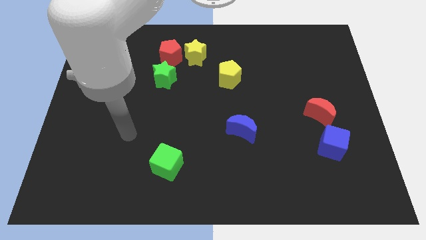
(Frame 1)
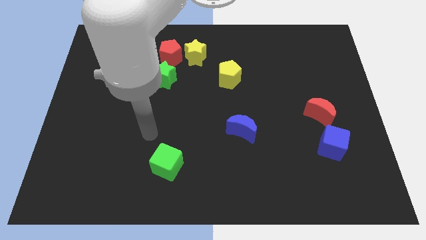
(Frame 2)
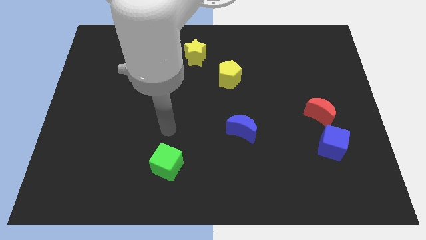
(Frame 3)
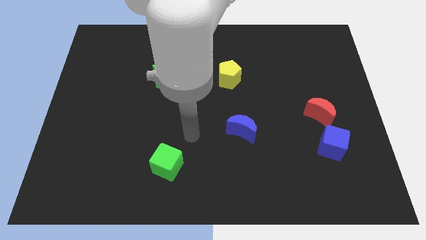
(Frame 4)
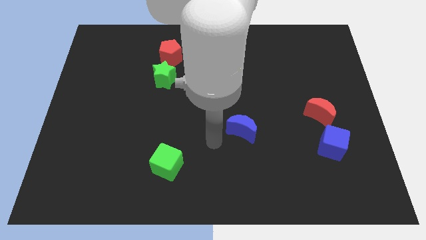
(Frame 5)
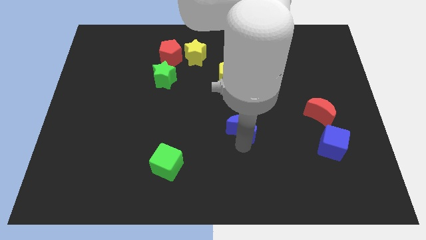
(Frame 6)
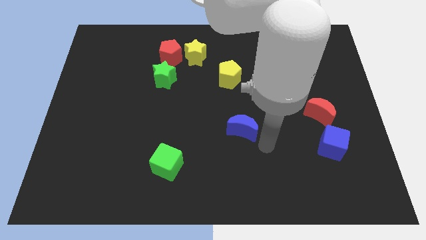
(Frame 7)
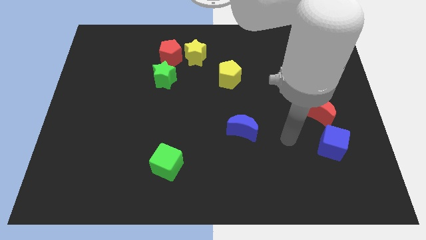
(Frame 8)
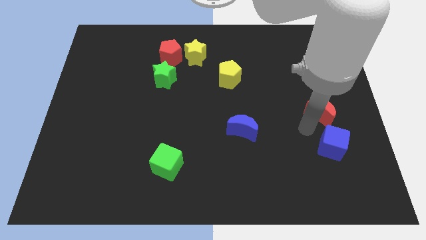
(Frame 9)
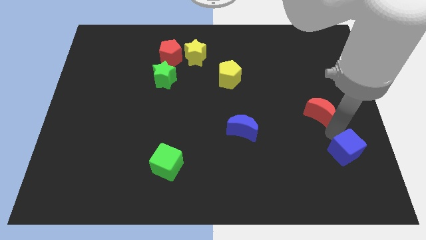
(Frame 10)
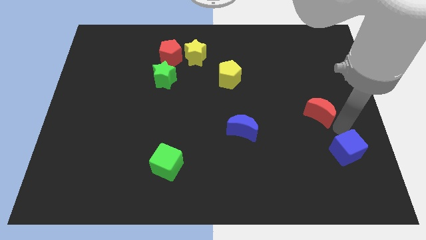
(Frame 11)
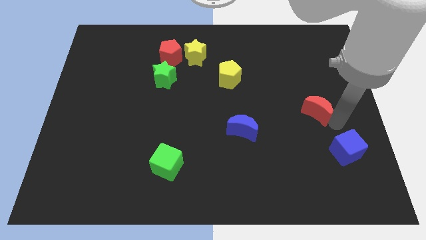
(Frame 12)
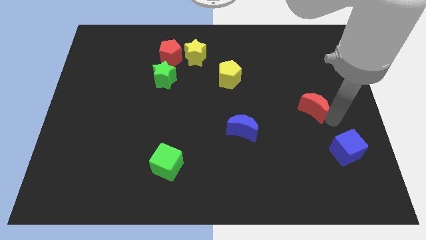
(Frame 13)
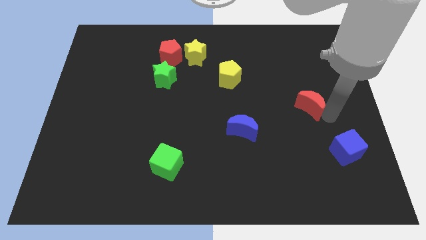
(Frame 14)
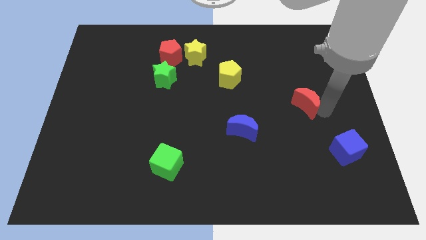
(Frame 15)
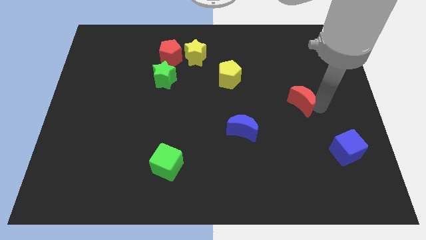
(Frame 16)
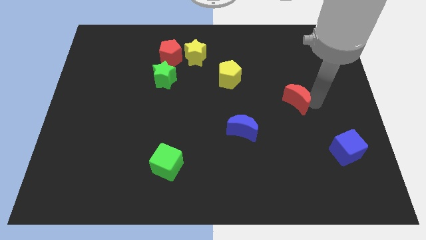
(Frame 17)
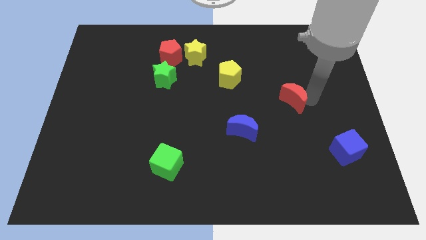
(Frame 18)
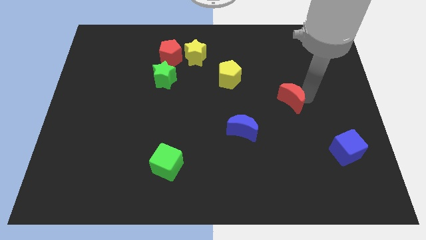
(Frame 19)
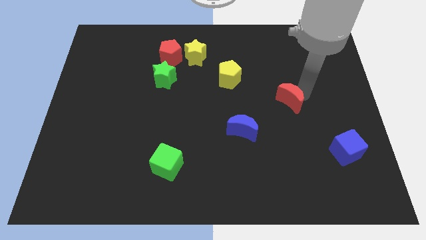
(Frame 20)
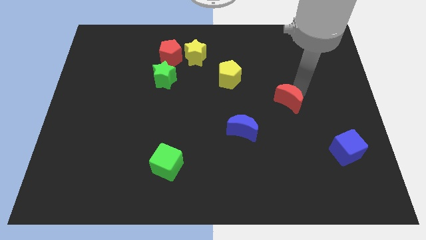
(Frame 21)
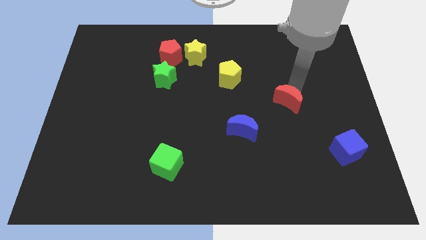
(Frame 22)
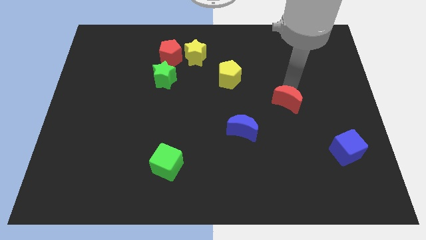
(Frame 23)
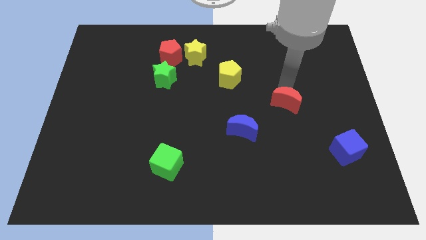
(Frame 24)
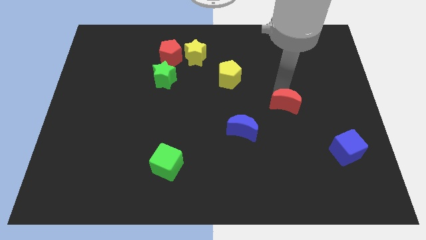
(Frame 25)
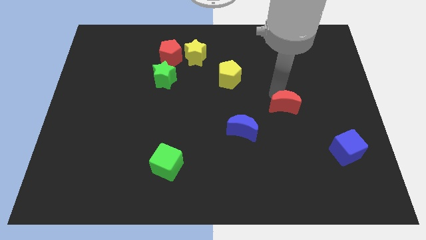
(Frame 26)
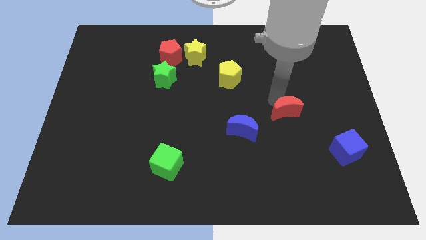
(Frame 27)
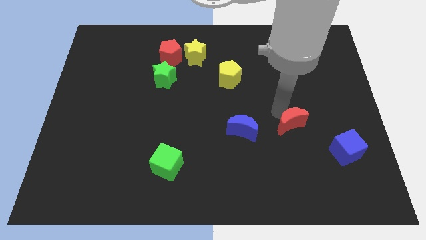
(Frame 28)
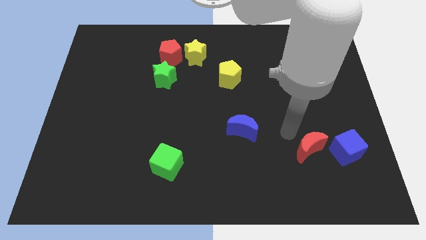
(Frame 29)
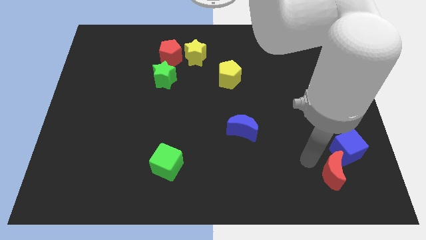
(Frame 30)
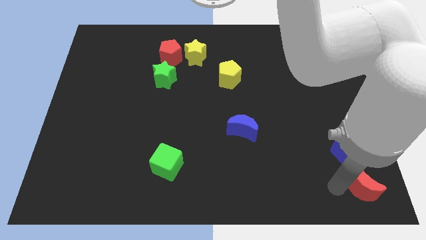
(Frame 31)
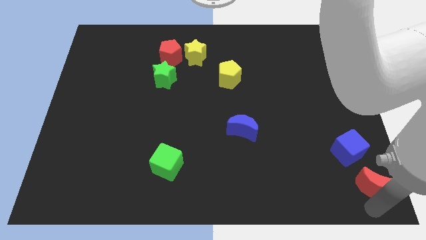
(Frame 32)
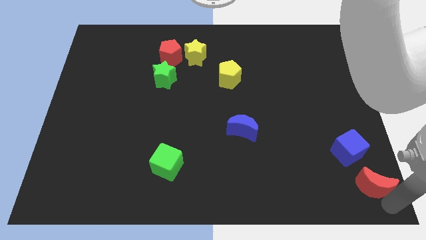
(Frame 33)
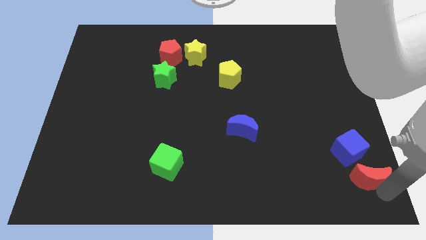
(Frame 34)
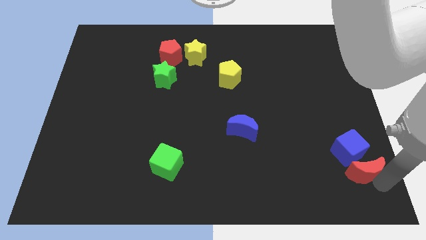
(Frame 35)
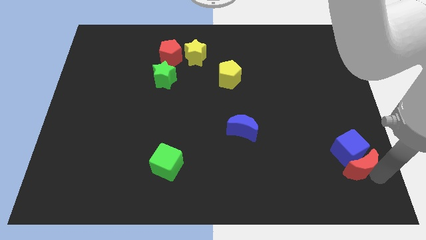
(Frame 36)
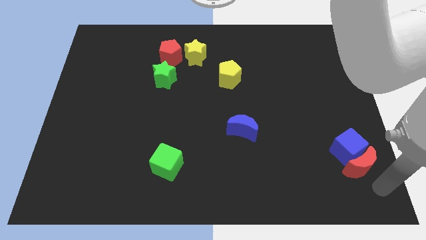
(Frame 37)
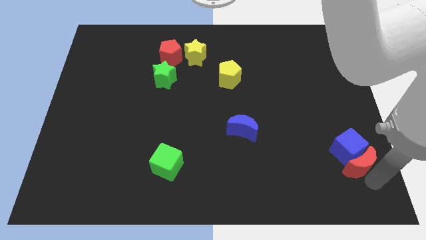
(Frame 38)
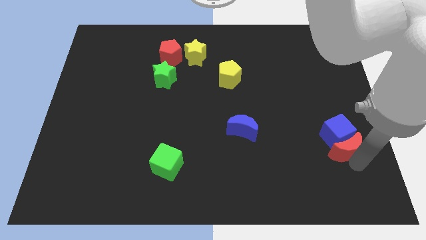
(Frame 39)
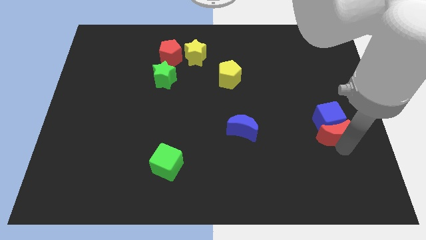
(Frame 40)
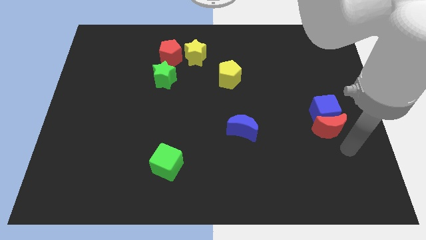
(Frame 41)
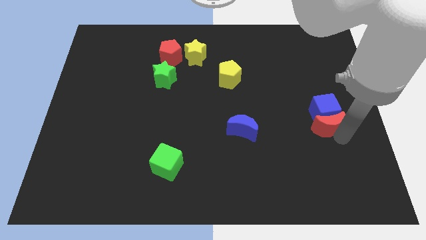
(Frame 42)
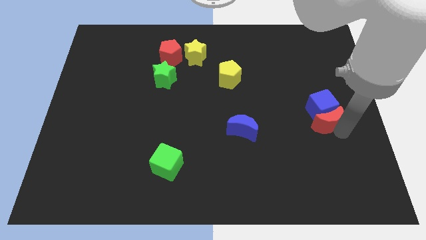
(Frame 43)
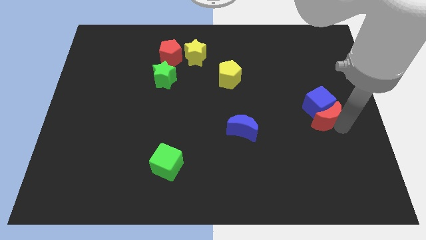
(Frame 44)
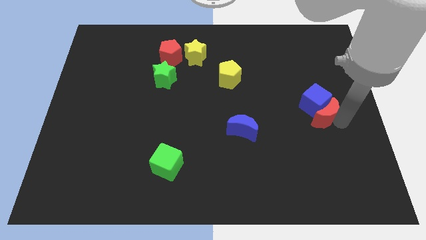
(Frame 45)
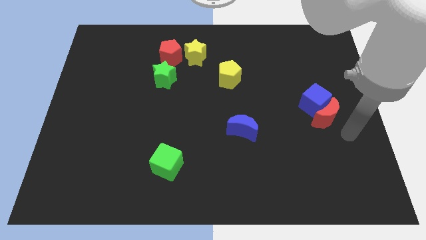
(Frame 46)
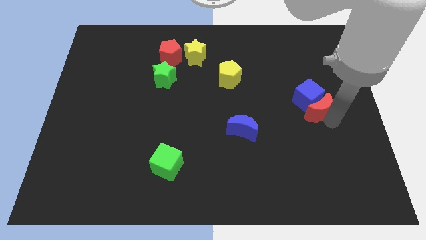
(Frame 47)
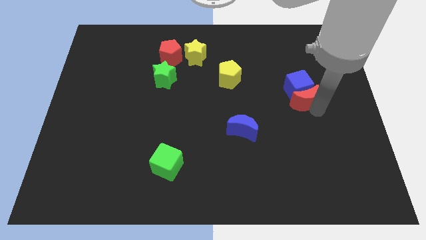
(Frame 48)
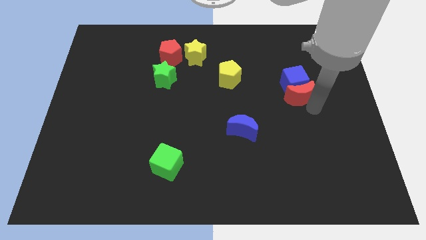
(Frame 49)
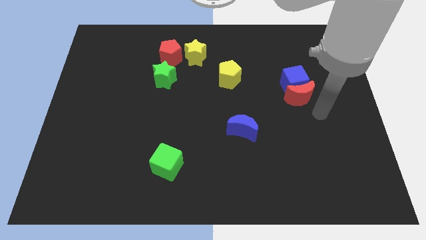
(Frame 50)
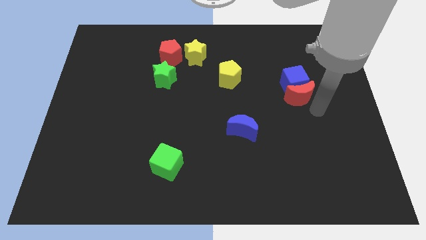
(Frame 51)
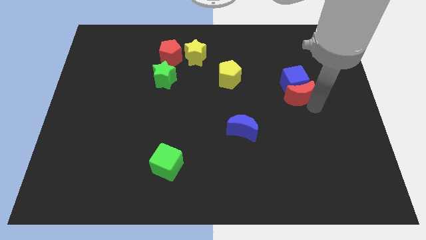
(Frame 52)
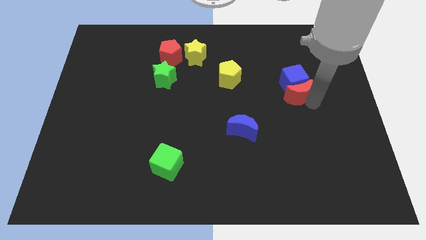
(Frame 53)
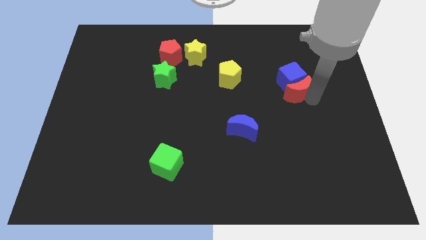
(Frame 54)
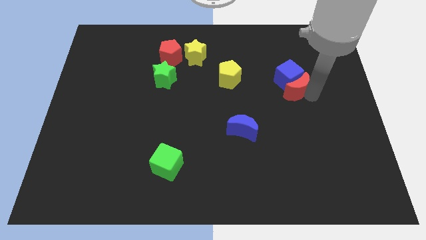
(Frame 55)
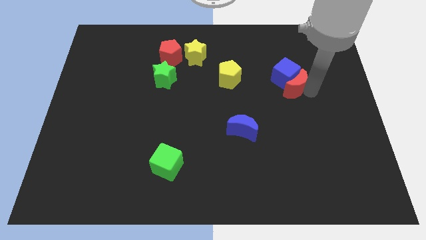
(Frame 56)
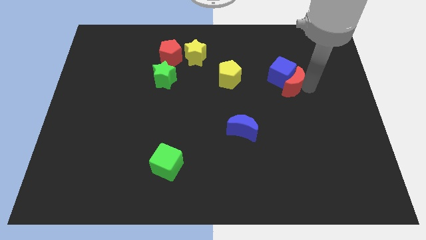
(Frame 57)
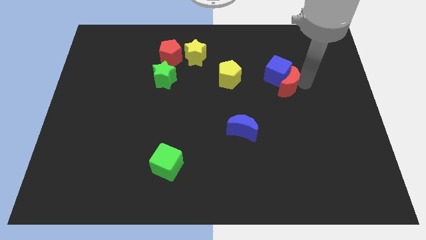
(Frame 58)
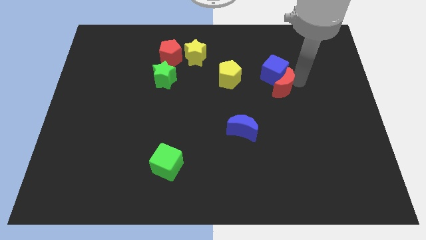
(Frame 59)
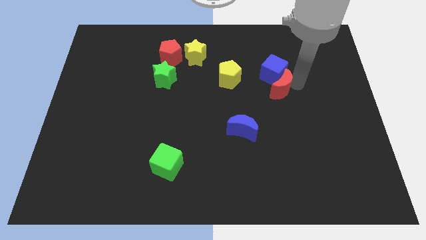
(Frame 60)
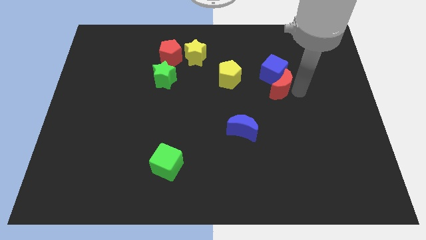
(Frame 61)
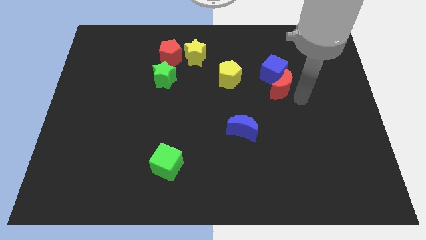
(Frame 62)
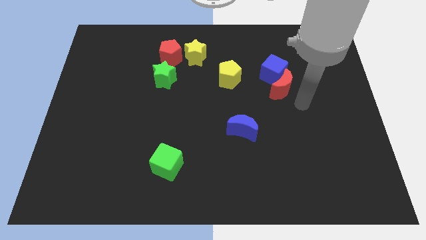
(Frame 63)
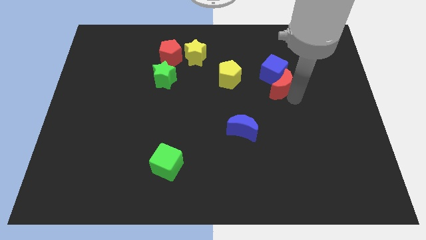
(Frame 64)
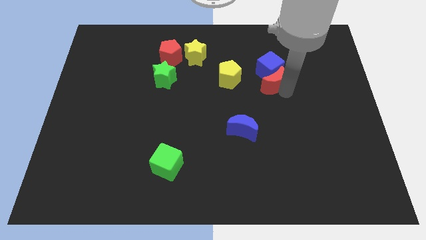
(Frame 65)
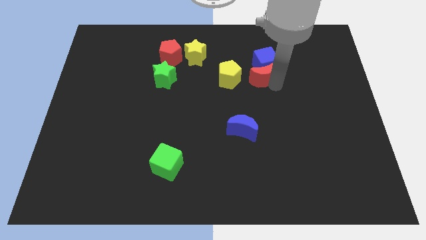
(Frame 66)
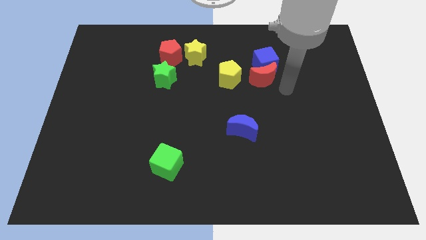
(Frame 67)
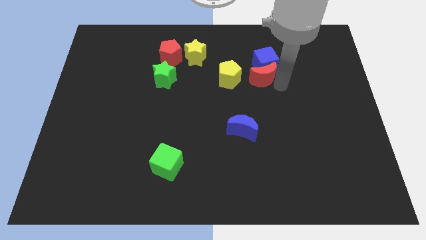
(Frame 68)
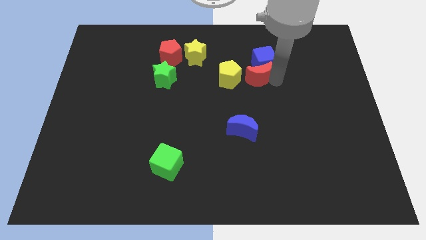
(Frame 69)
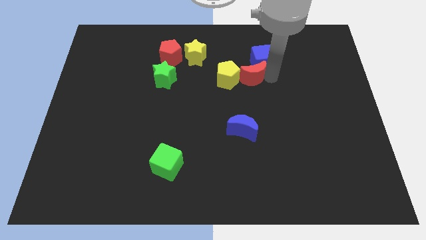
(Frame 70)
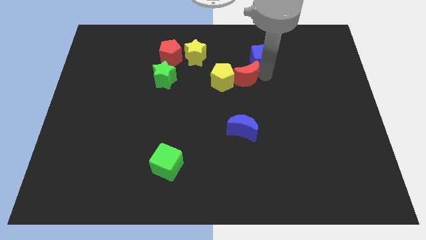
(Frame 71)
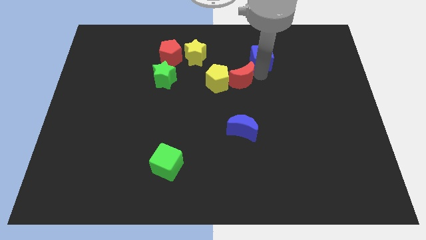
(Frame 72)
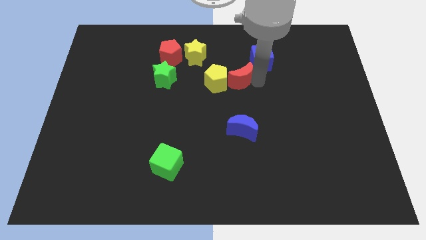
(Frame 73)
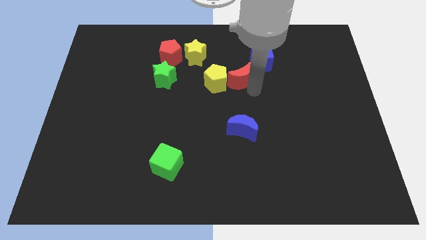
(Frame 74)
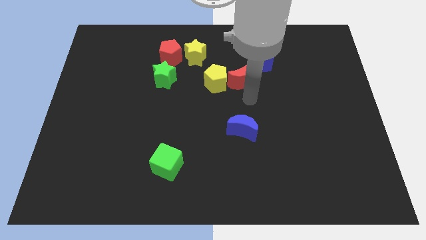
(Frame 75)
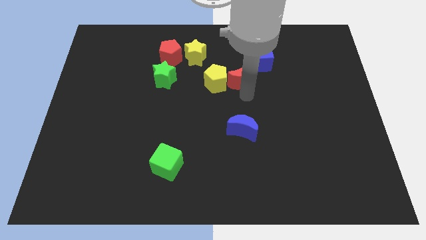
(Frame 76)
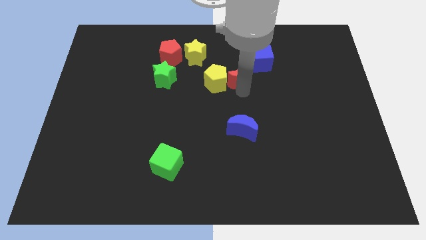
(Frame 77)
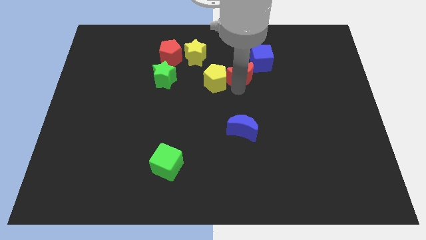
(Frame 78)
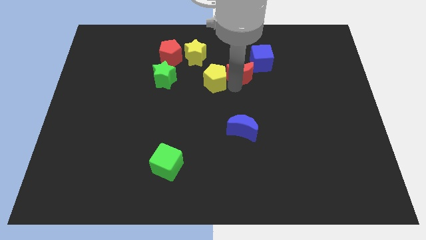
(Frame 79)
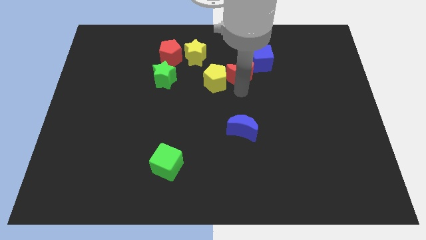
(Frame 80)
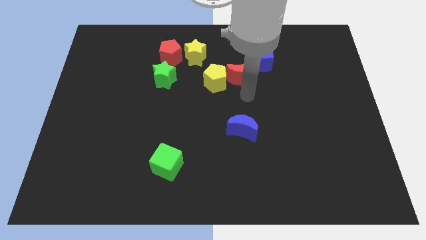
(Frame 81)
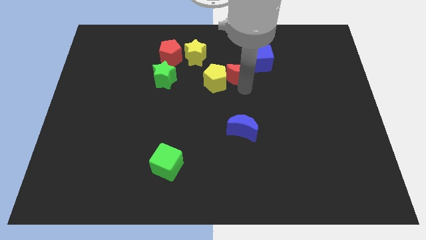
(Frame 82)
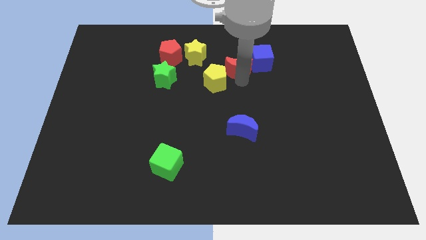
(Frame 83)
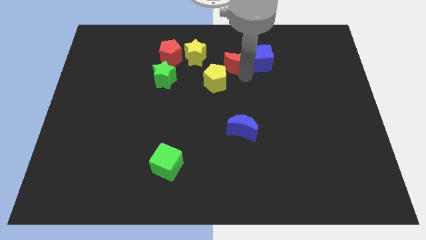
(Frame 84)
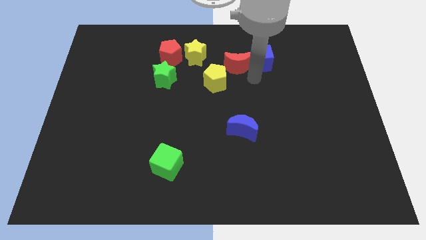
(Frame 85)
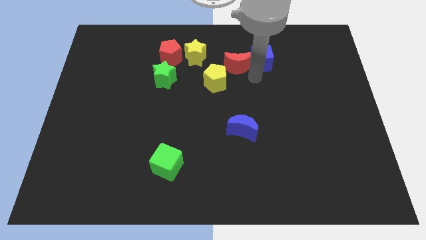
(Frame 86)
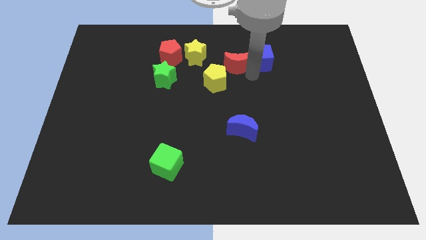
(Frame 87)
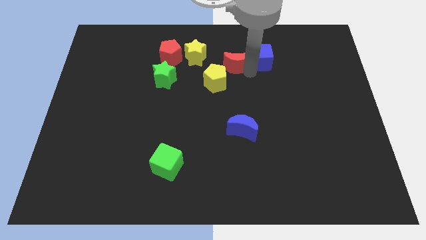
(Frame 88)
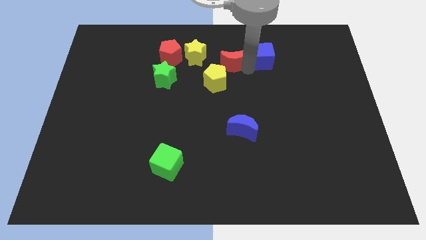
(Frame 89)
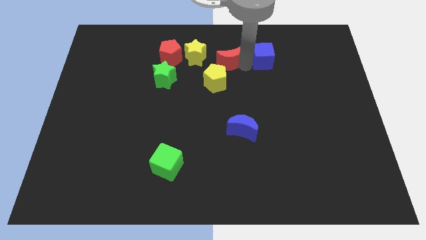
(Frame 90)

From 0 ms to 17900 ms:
slide the red moon right of the red pentagon
